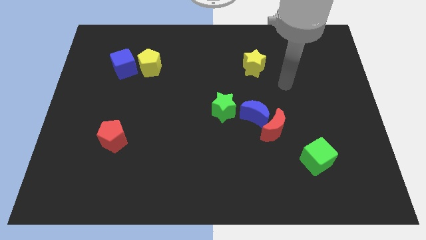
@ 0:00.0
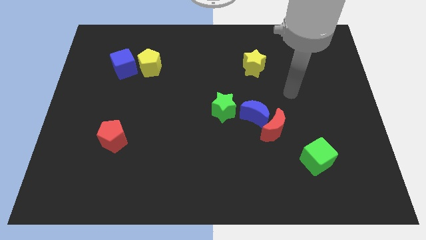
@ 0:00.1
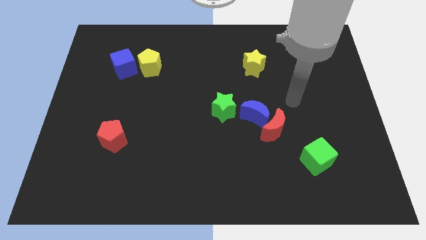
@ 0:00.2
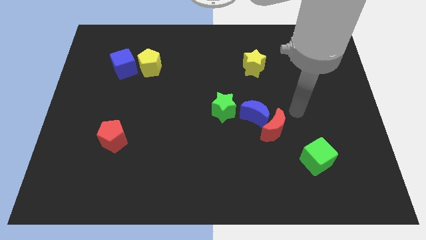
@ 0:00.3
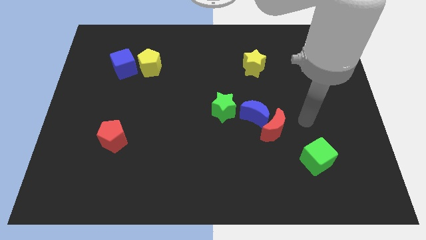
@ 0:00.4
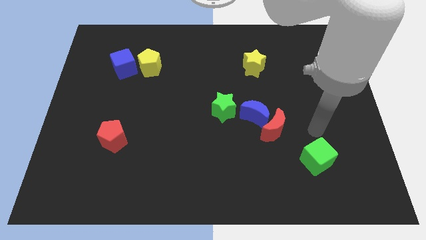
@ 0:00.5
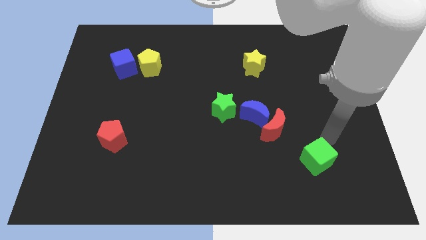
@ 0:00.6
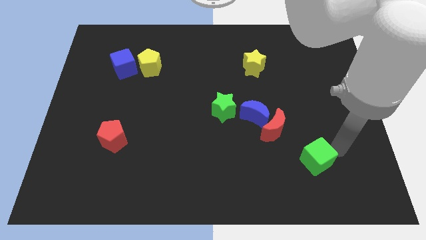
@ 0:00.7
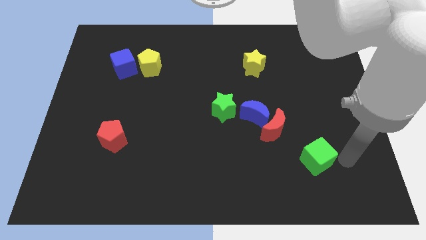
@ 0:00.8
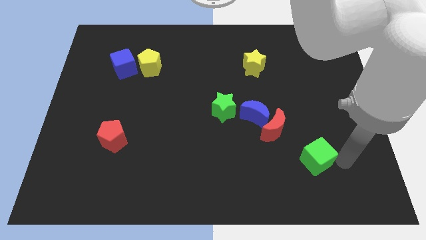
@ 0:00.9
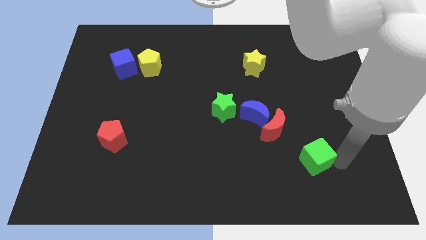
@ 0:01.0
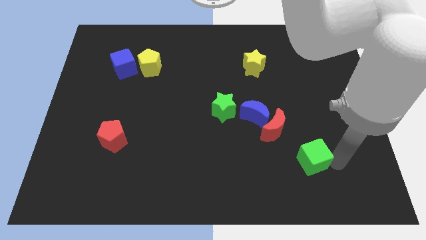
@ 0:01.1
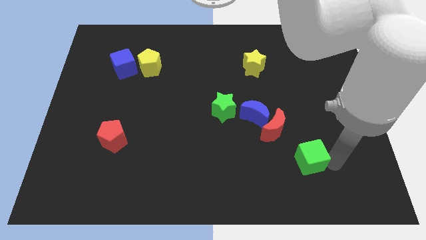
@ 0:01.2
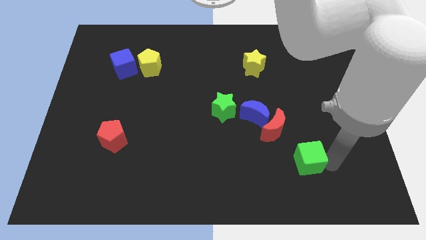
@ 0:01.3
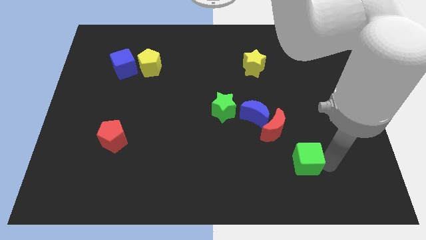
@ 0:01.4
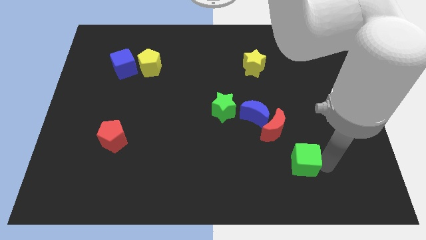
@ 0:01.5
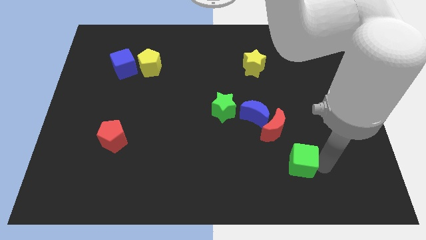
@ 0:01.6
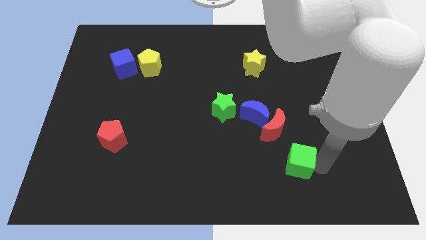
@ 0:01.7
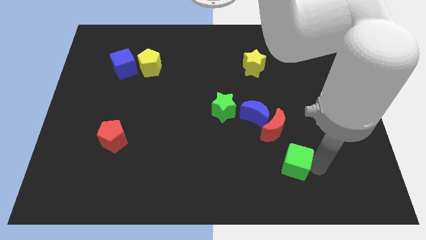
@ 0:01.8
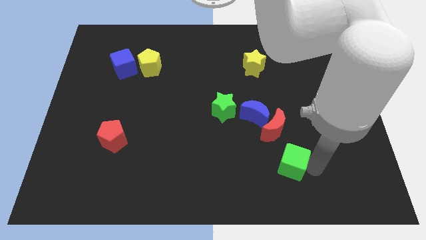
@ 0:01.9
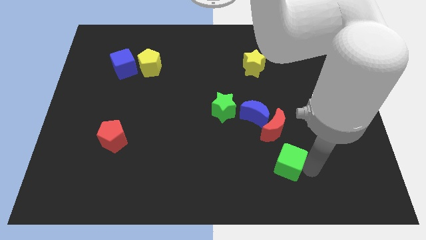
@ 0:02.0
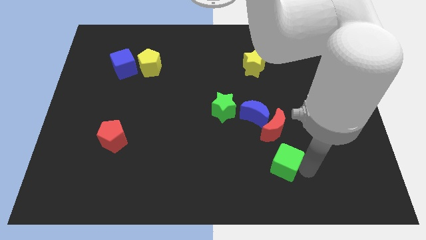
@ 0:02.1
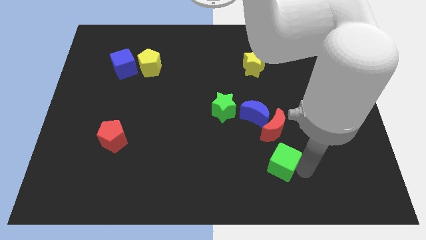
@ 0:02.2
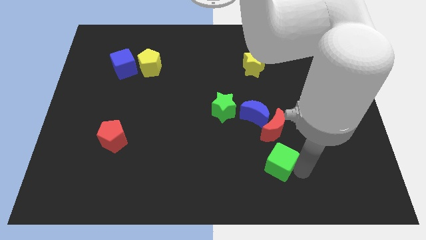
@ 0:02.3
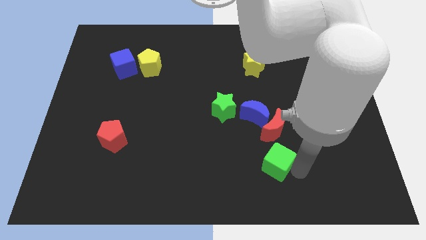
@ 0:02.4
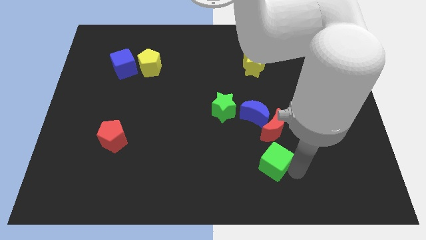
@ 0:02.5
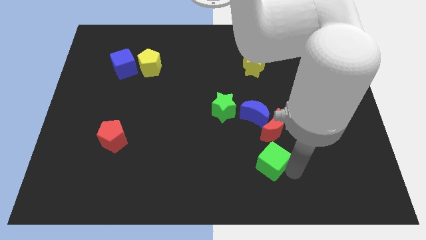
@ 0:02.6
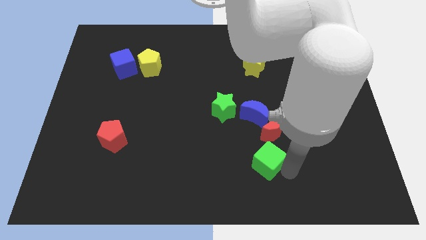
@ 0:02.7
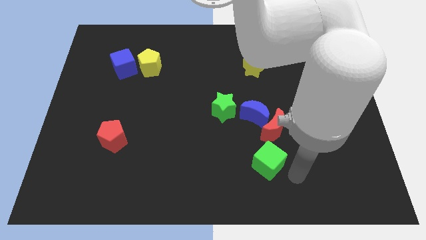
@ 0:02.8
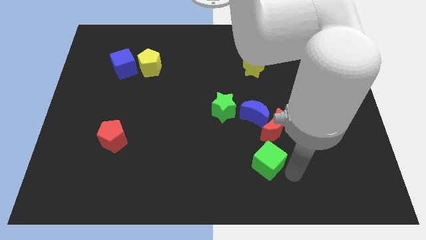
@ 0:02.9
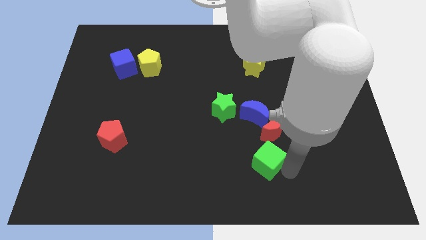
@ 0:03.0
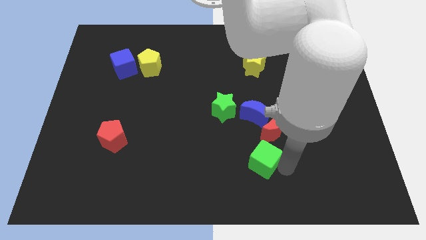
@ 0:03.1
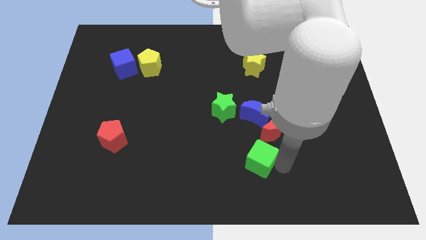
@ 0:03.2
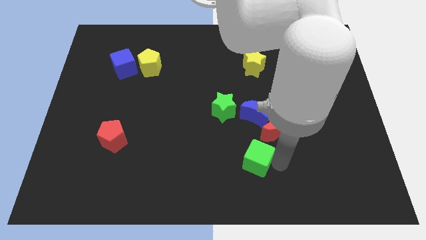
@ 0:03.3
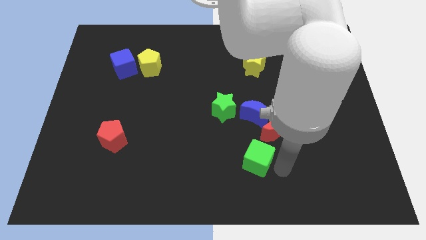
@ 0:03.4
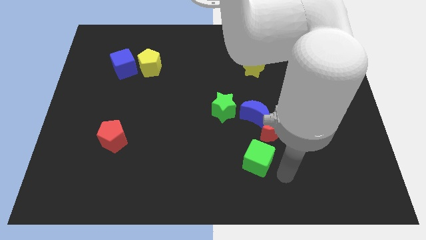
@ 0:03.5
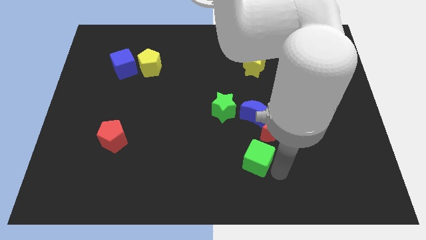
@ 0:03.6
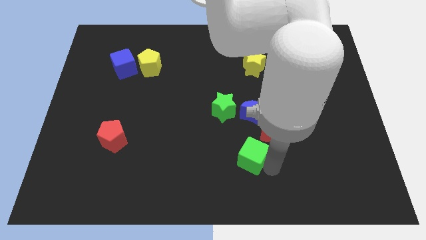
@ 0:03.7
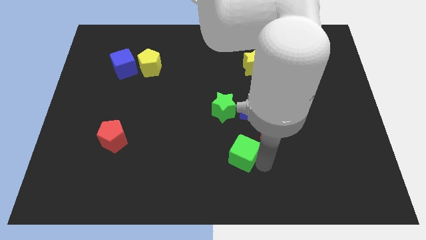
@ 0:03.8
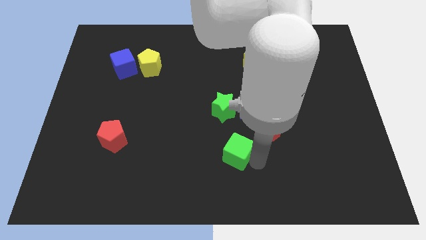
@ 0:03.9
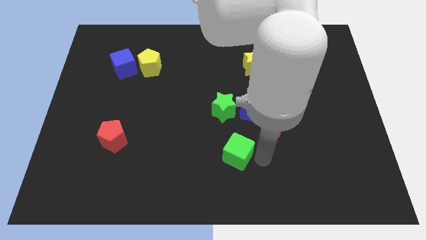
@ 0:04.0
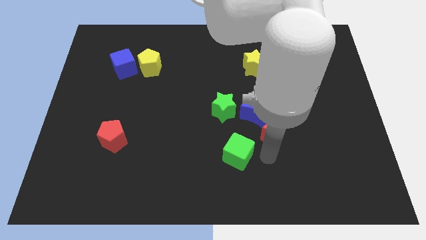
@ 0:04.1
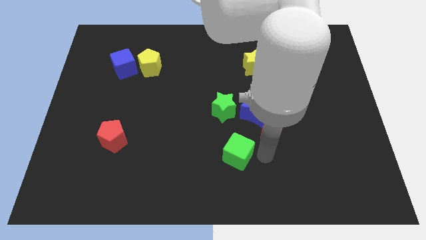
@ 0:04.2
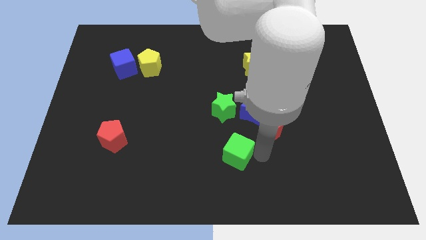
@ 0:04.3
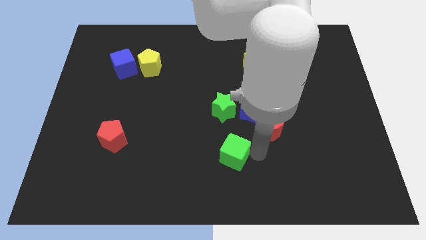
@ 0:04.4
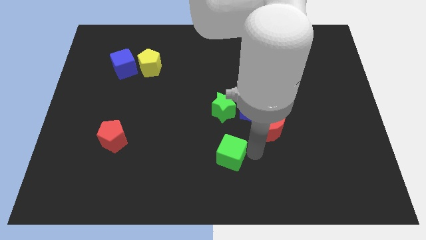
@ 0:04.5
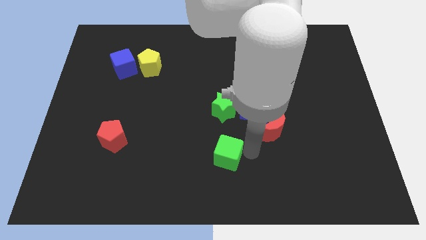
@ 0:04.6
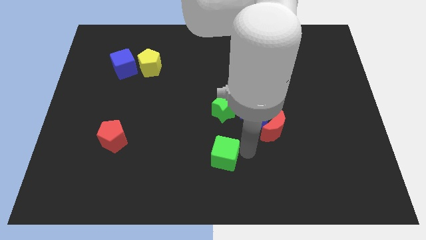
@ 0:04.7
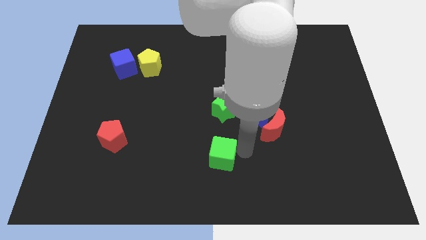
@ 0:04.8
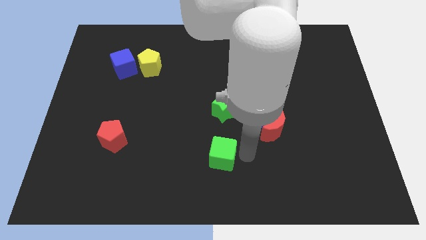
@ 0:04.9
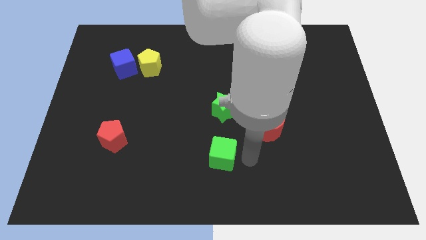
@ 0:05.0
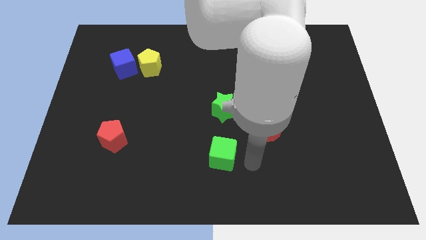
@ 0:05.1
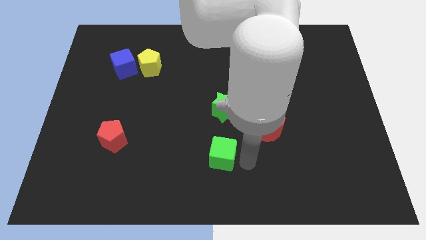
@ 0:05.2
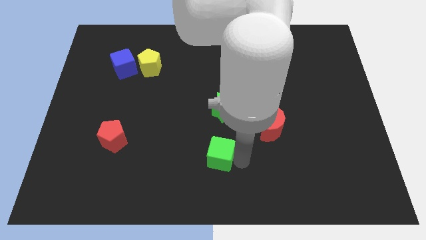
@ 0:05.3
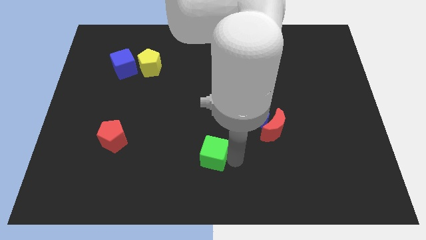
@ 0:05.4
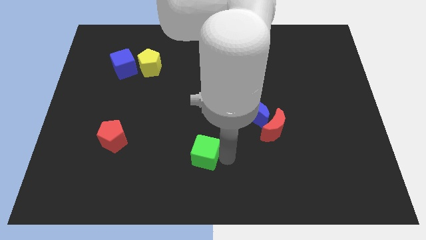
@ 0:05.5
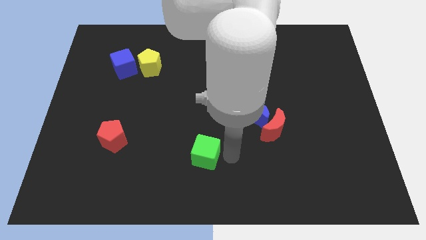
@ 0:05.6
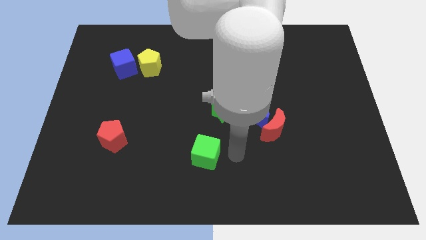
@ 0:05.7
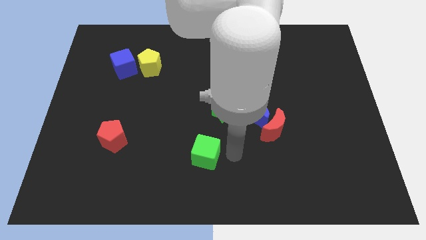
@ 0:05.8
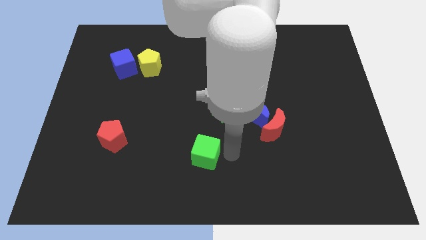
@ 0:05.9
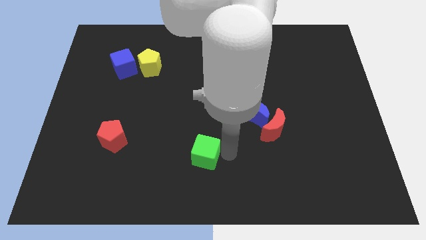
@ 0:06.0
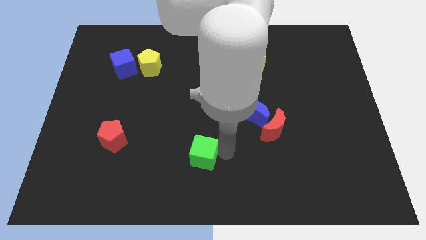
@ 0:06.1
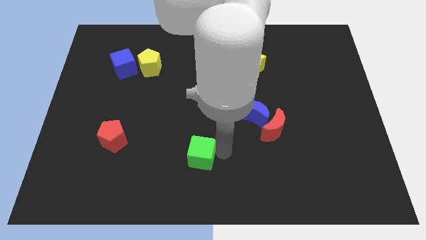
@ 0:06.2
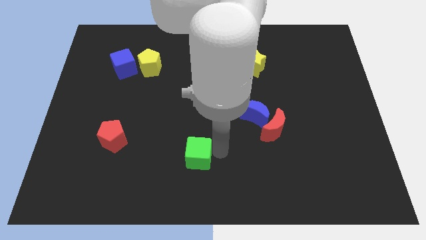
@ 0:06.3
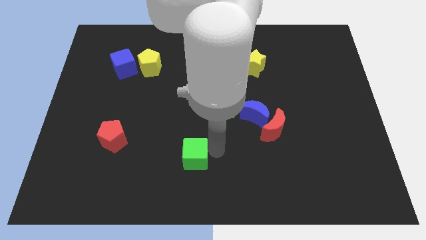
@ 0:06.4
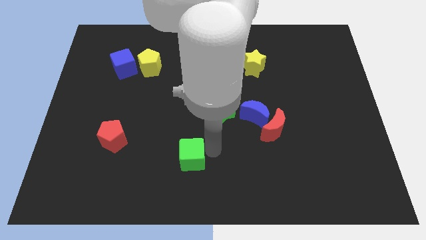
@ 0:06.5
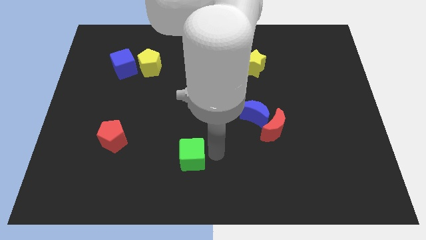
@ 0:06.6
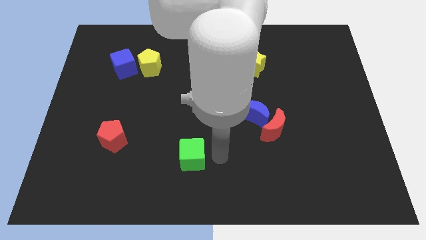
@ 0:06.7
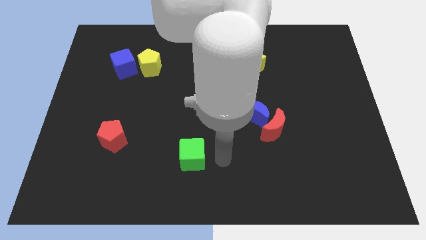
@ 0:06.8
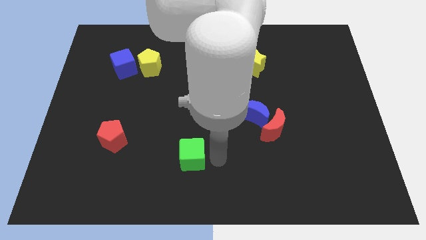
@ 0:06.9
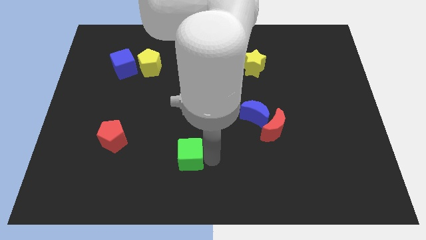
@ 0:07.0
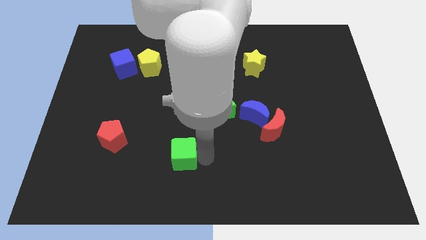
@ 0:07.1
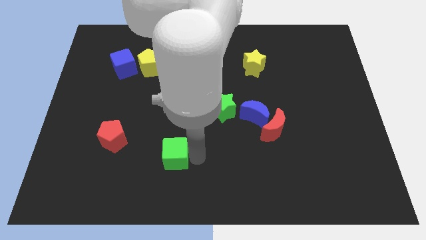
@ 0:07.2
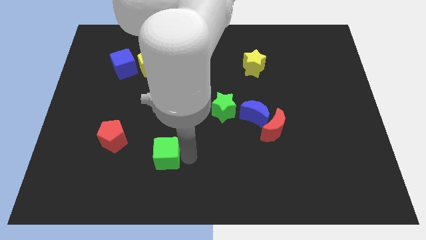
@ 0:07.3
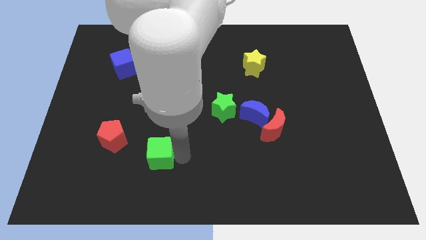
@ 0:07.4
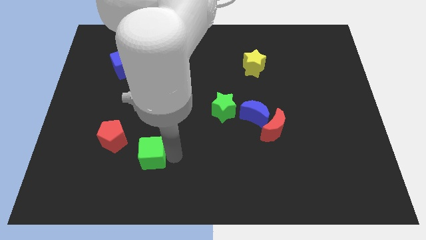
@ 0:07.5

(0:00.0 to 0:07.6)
push the green cube to the bottom right side of the red pentagon

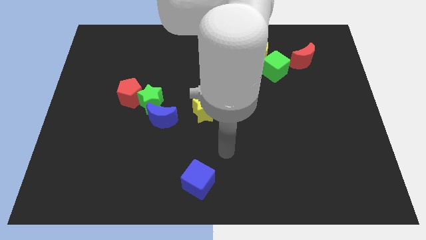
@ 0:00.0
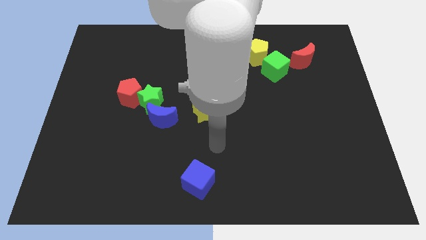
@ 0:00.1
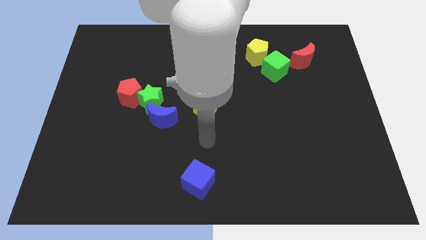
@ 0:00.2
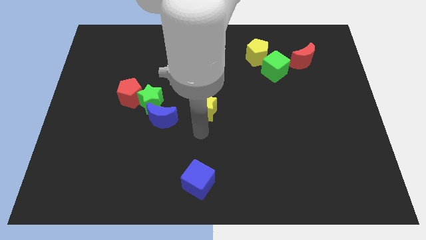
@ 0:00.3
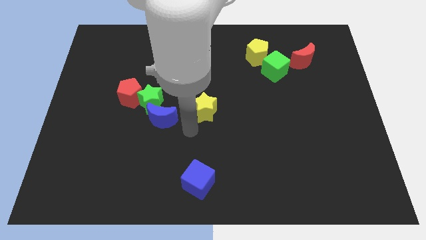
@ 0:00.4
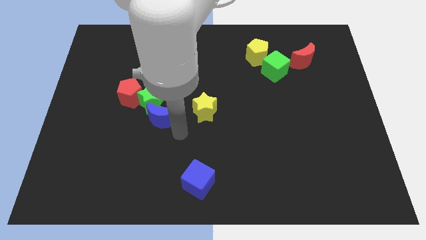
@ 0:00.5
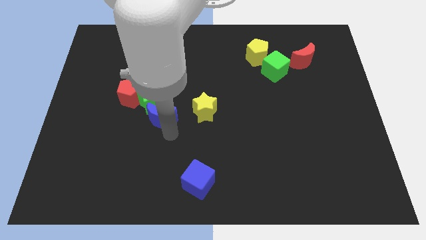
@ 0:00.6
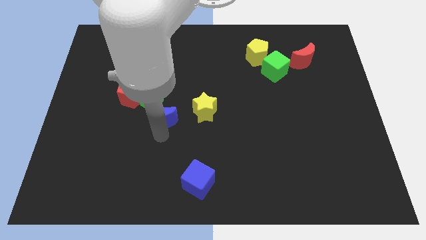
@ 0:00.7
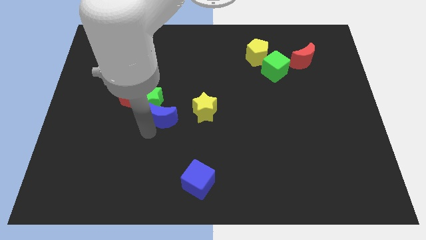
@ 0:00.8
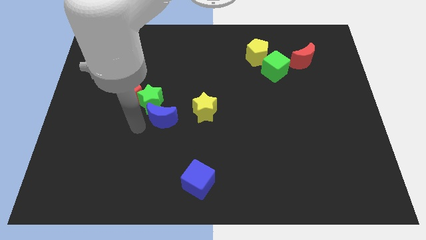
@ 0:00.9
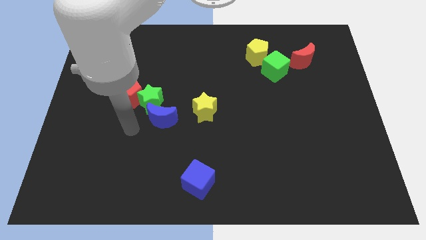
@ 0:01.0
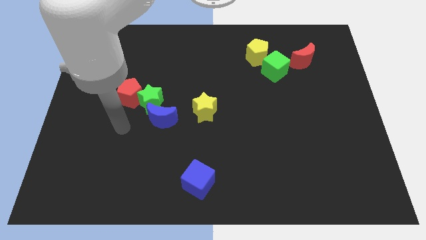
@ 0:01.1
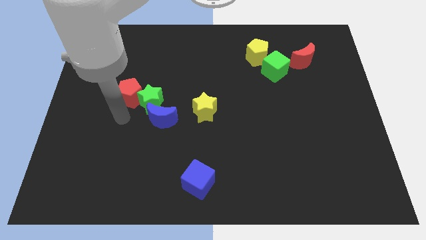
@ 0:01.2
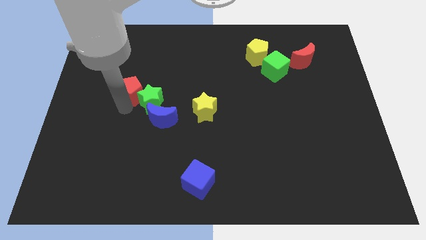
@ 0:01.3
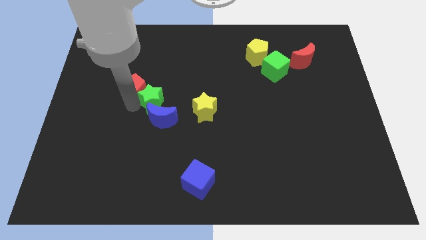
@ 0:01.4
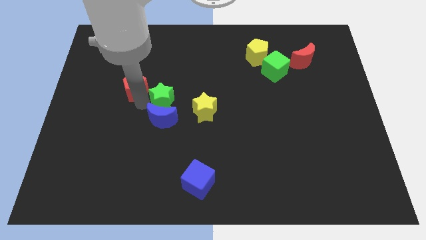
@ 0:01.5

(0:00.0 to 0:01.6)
move the green star to the top left side of the yellow star
